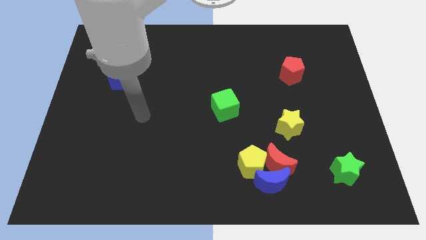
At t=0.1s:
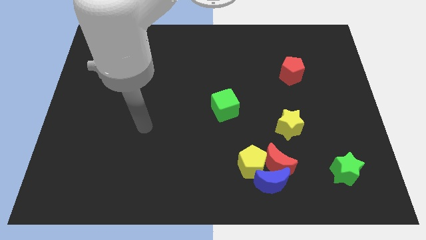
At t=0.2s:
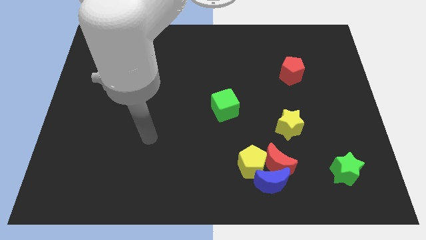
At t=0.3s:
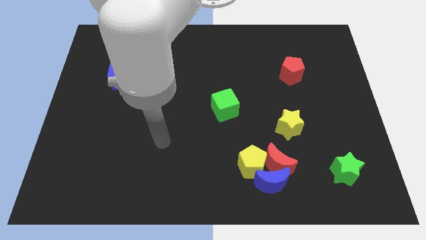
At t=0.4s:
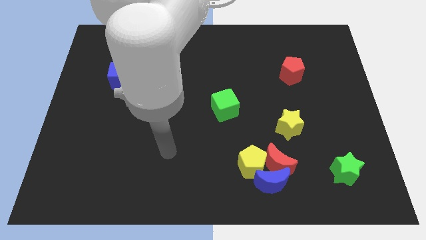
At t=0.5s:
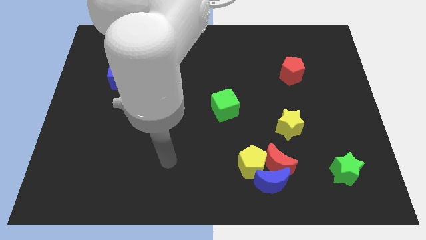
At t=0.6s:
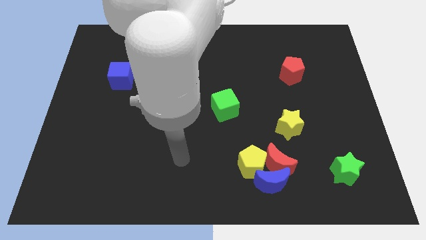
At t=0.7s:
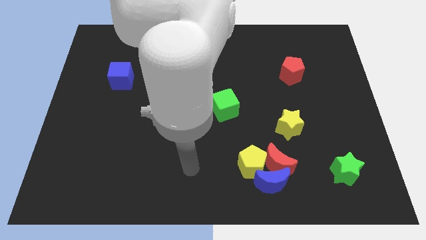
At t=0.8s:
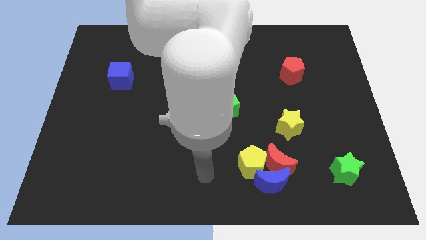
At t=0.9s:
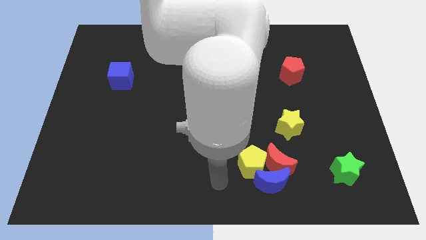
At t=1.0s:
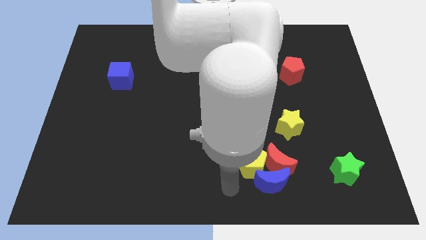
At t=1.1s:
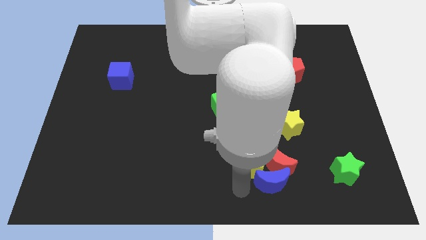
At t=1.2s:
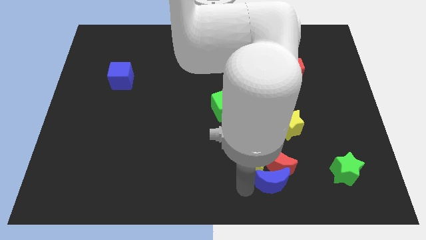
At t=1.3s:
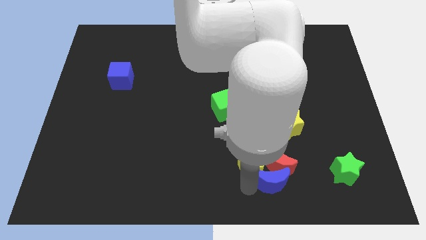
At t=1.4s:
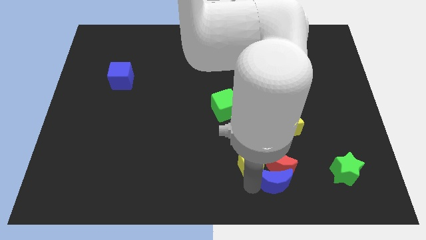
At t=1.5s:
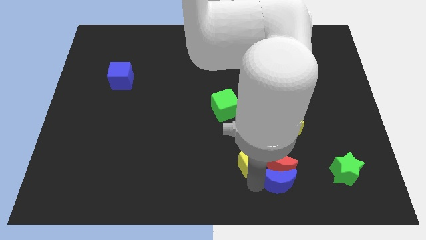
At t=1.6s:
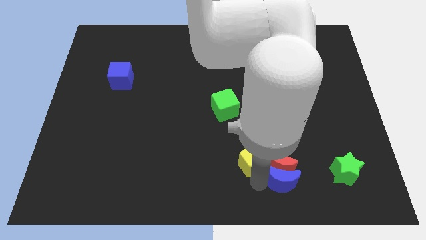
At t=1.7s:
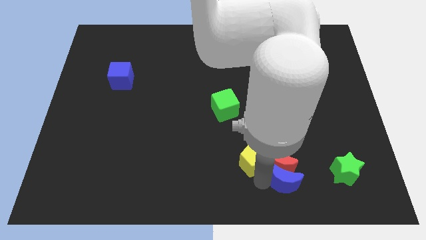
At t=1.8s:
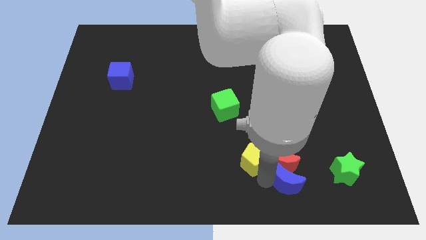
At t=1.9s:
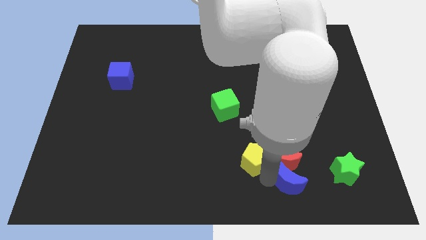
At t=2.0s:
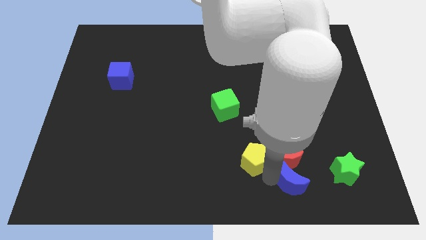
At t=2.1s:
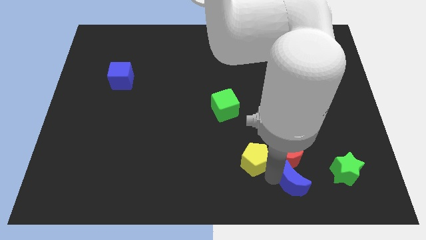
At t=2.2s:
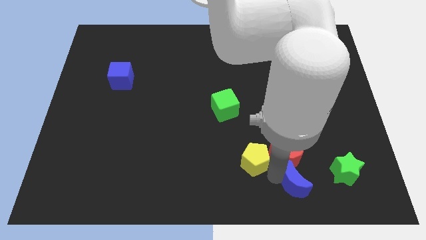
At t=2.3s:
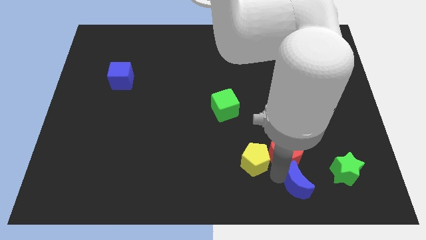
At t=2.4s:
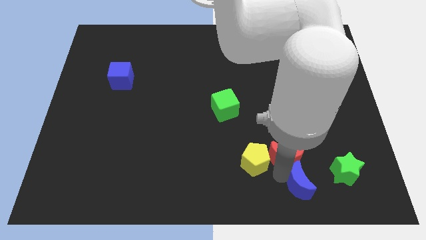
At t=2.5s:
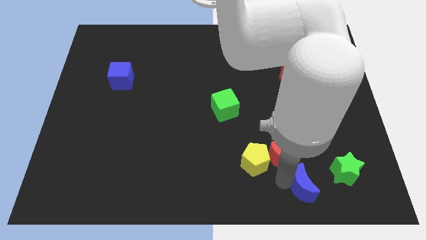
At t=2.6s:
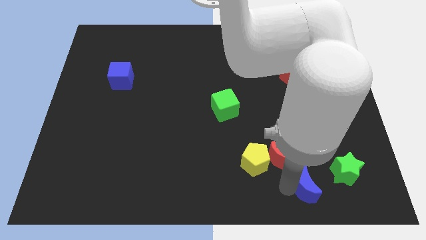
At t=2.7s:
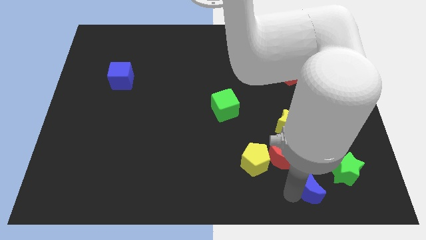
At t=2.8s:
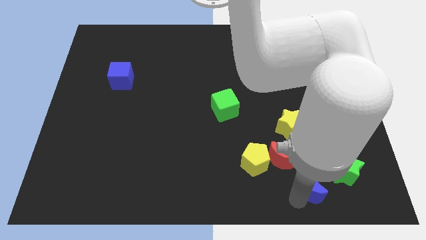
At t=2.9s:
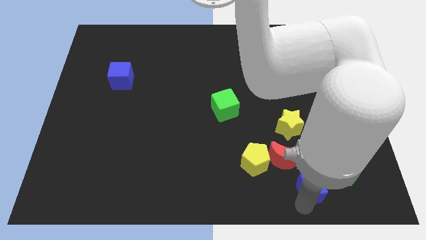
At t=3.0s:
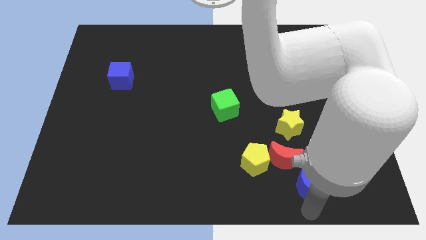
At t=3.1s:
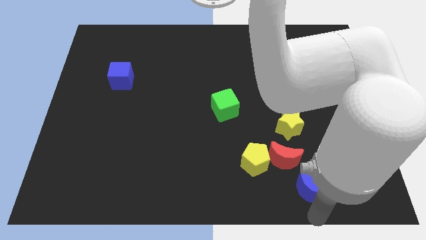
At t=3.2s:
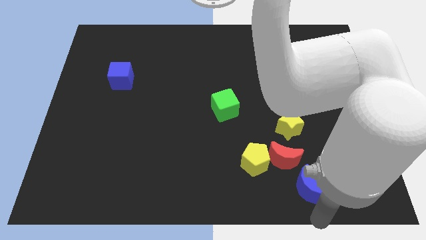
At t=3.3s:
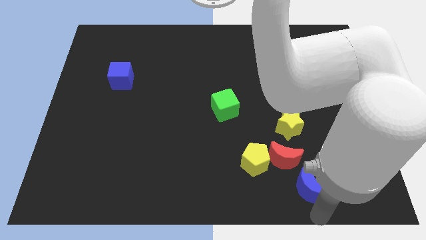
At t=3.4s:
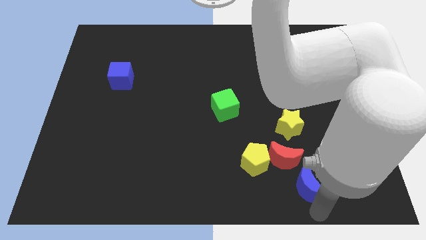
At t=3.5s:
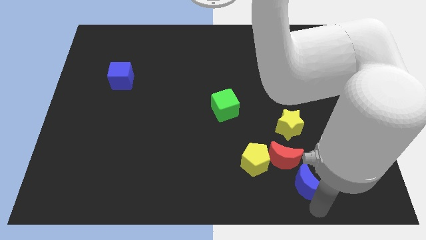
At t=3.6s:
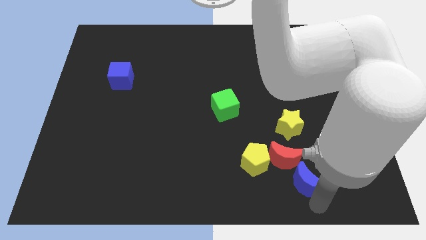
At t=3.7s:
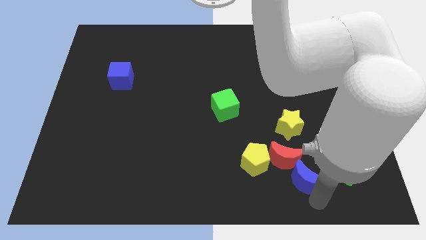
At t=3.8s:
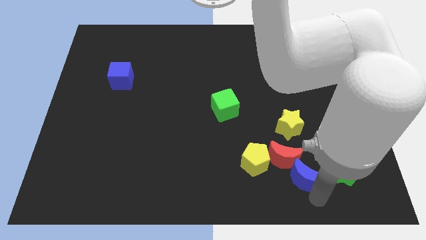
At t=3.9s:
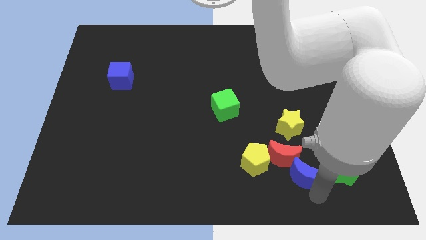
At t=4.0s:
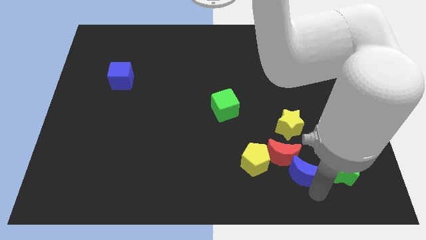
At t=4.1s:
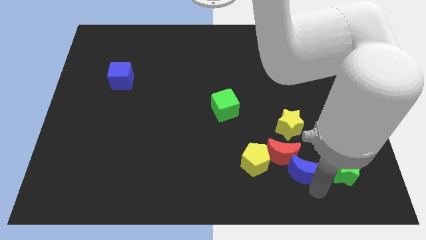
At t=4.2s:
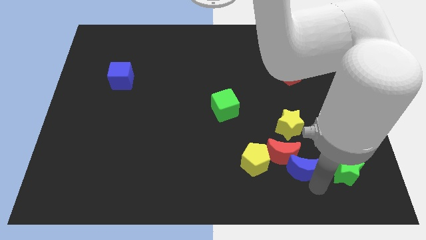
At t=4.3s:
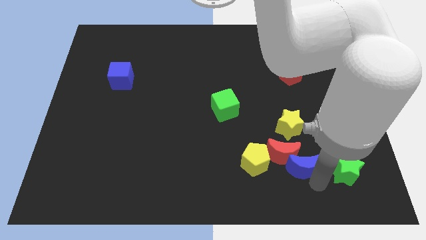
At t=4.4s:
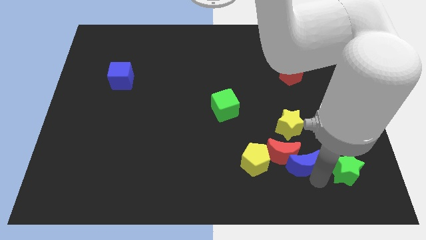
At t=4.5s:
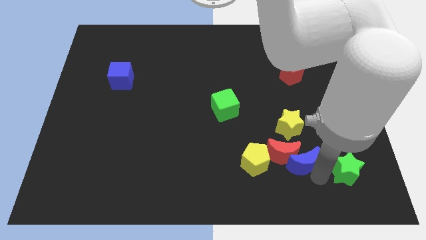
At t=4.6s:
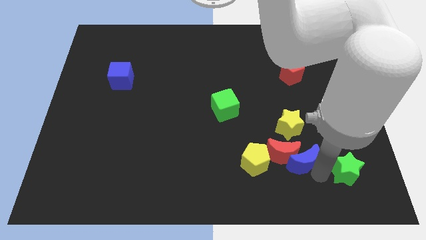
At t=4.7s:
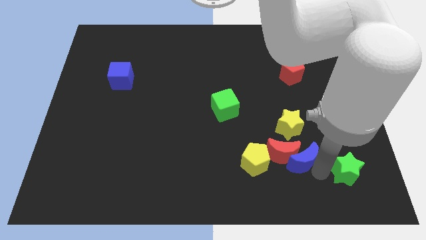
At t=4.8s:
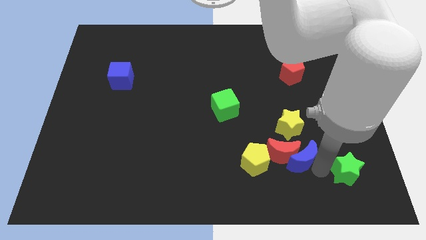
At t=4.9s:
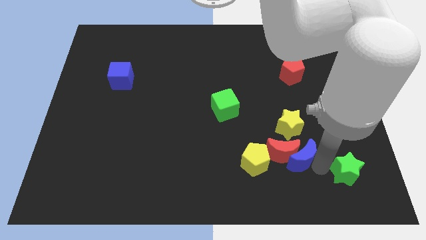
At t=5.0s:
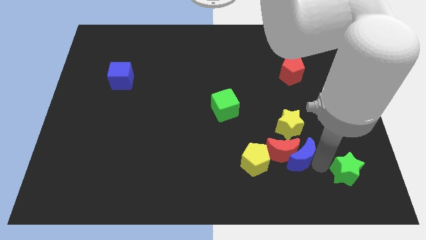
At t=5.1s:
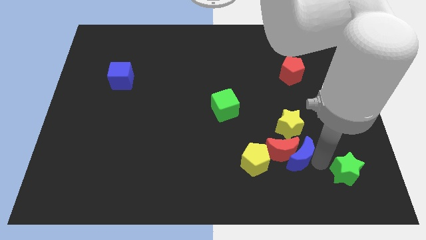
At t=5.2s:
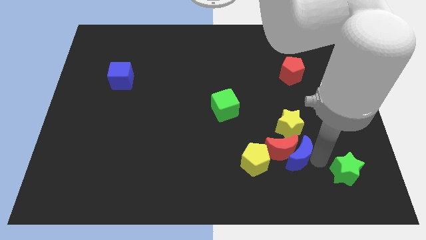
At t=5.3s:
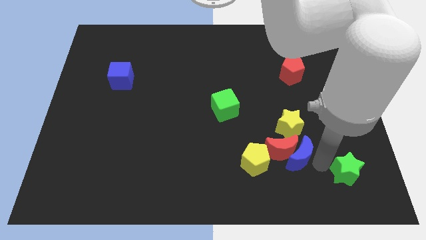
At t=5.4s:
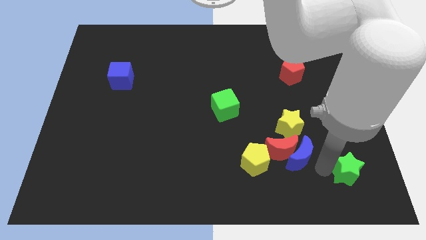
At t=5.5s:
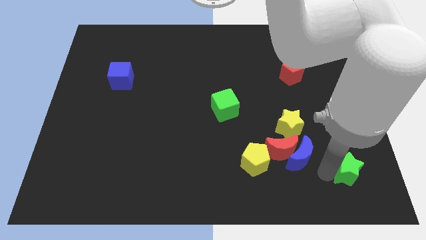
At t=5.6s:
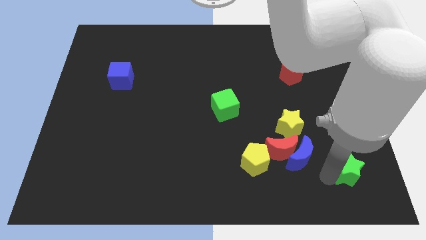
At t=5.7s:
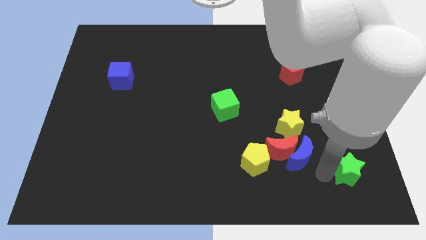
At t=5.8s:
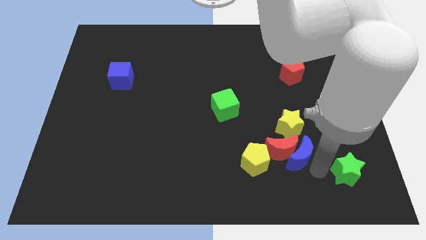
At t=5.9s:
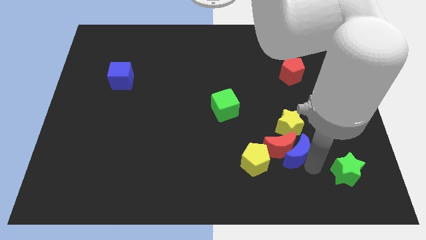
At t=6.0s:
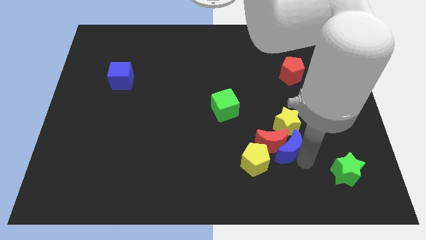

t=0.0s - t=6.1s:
push the blue moon a bit upwards

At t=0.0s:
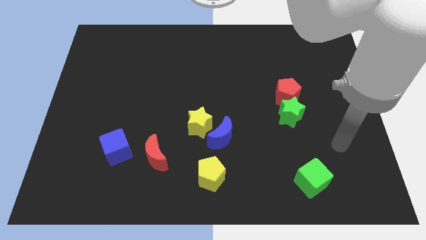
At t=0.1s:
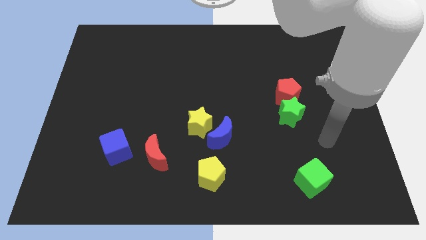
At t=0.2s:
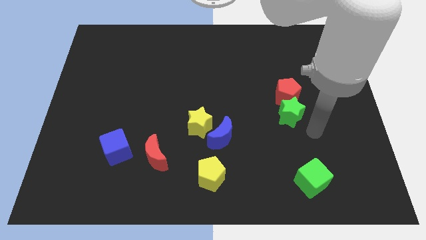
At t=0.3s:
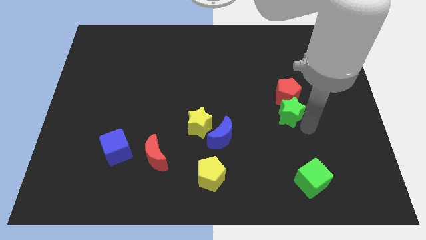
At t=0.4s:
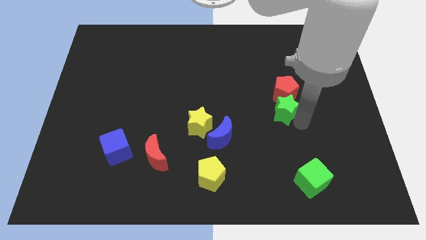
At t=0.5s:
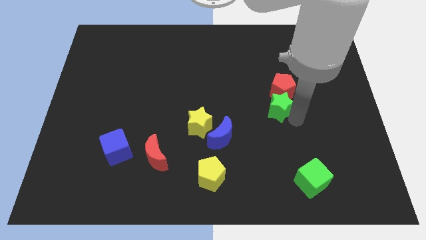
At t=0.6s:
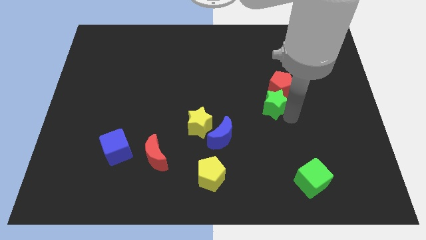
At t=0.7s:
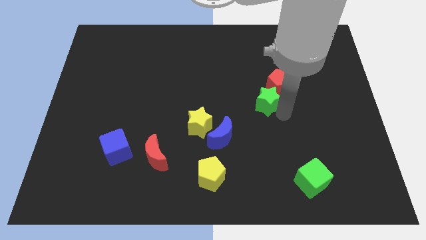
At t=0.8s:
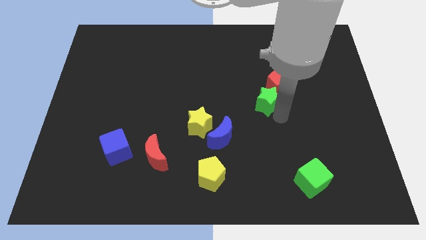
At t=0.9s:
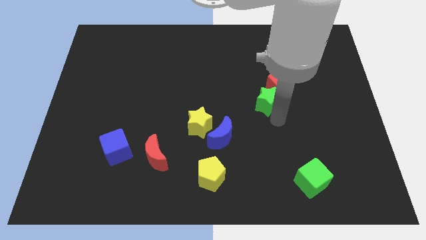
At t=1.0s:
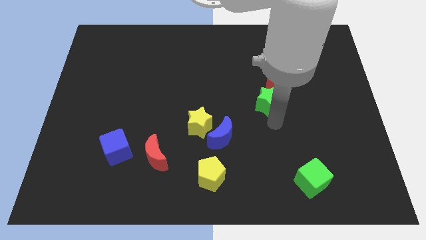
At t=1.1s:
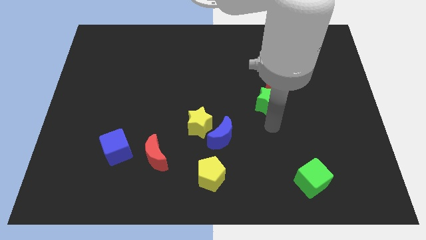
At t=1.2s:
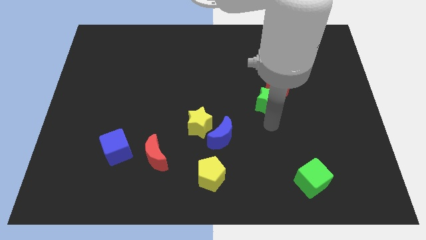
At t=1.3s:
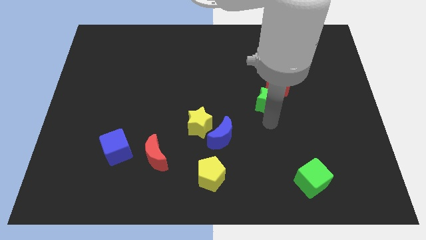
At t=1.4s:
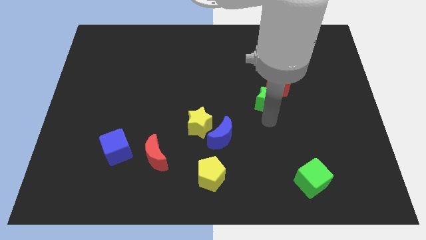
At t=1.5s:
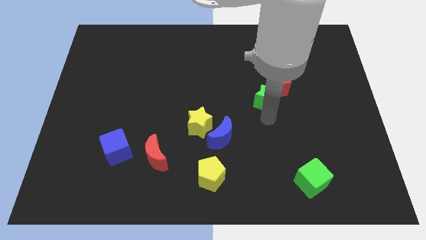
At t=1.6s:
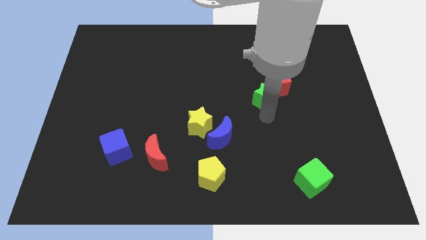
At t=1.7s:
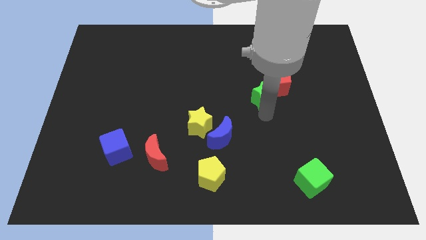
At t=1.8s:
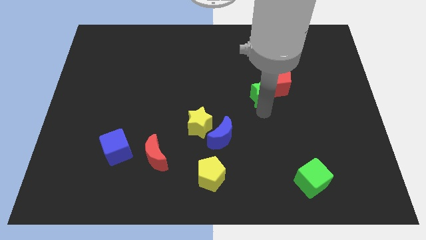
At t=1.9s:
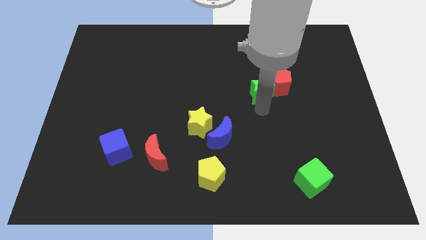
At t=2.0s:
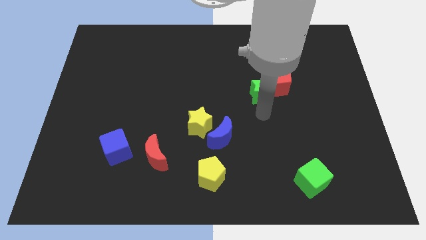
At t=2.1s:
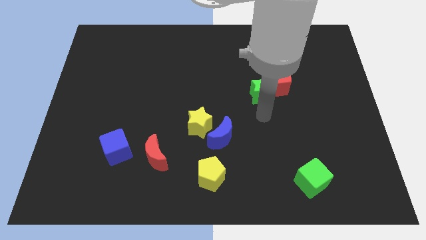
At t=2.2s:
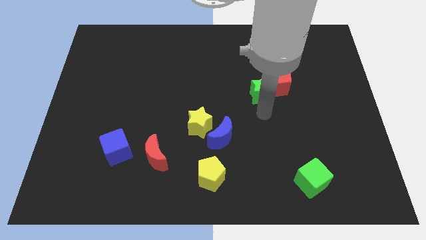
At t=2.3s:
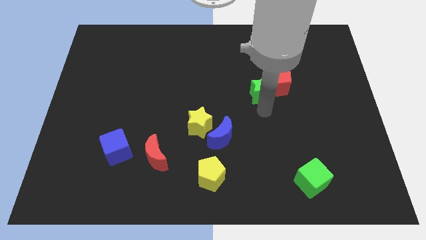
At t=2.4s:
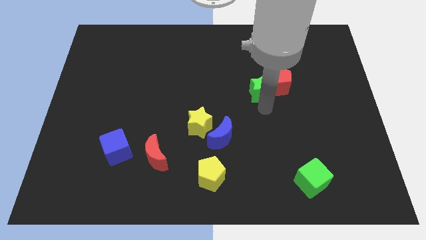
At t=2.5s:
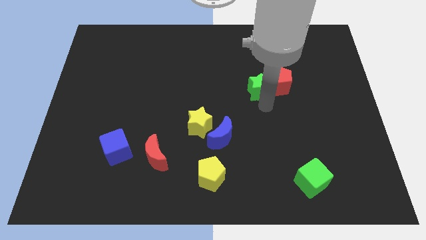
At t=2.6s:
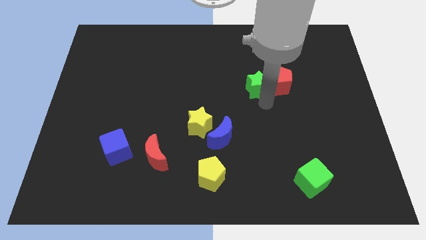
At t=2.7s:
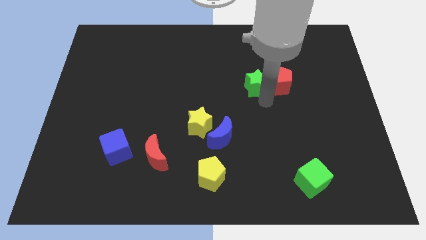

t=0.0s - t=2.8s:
move the green star slightly upwards
